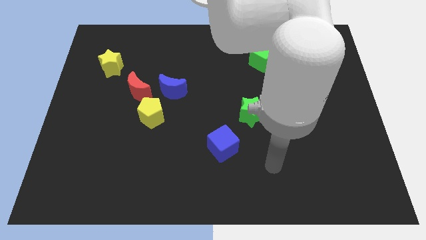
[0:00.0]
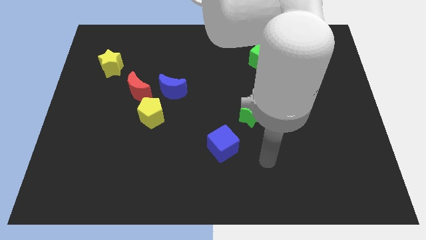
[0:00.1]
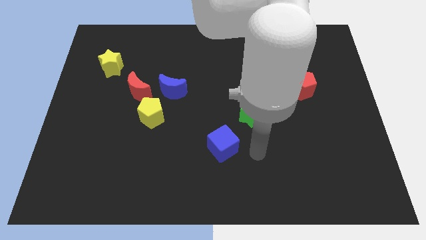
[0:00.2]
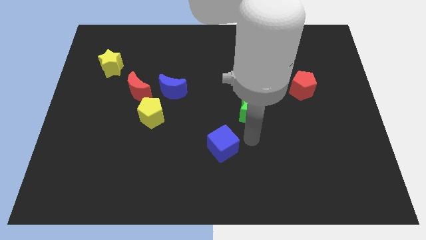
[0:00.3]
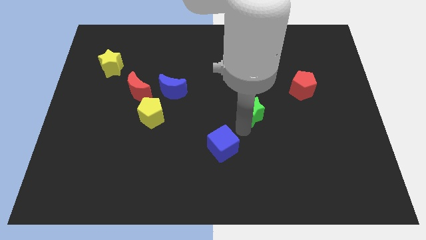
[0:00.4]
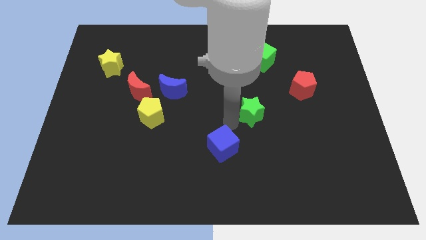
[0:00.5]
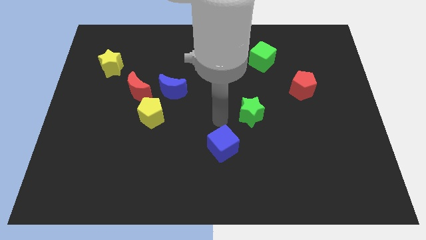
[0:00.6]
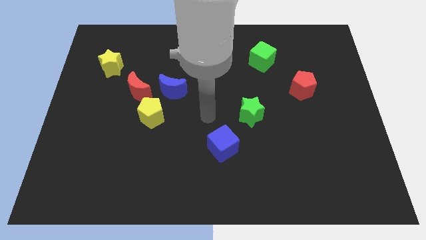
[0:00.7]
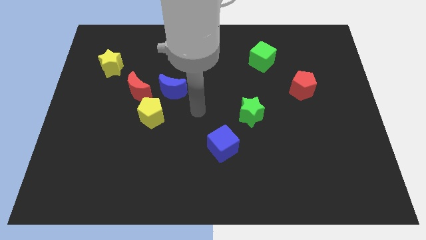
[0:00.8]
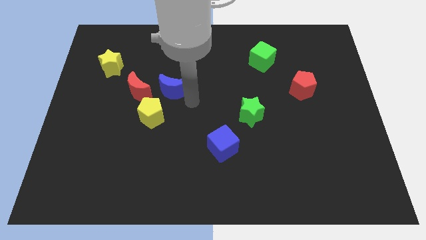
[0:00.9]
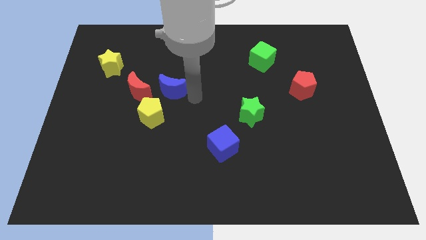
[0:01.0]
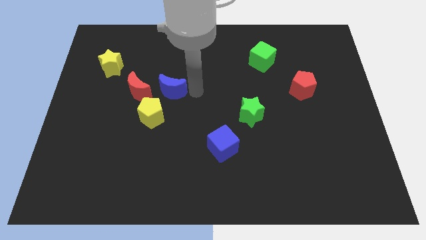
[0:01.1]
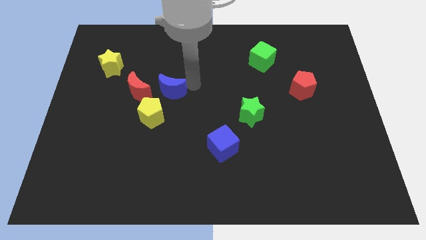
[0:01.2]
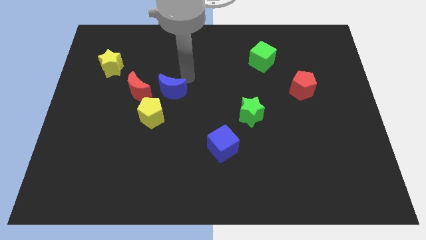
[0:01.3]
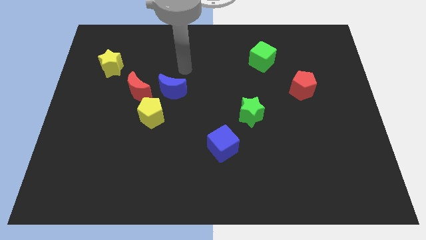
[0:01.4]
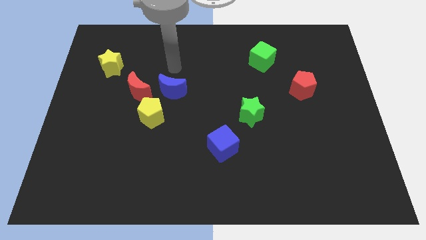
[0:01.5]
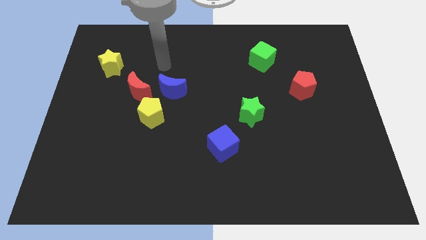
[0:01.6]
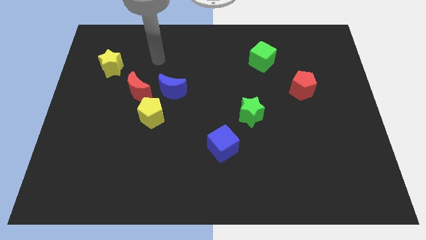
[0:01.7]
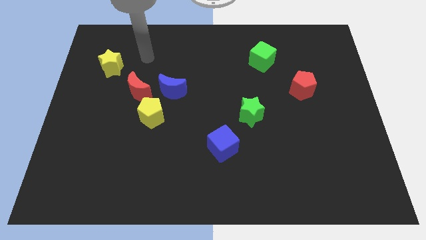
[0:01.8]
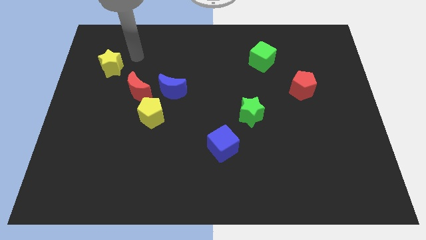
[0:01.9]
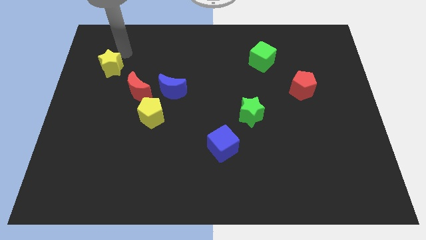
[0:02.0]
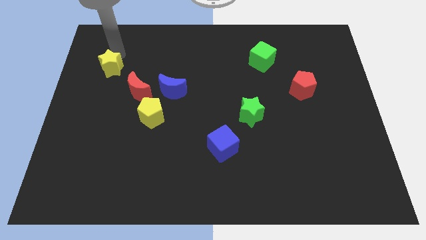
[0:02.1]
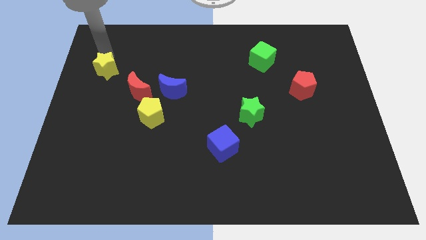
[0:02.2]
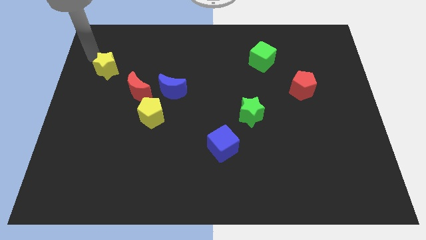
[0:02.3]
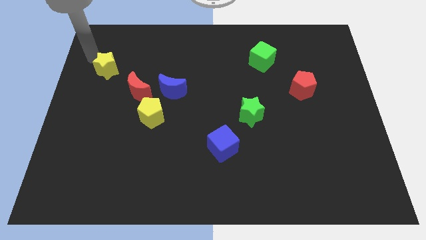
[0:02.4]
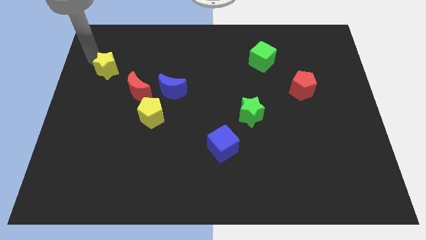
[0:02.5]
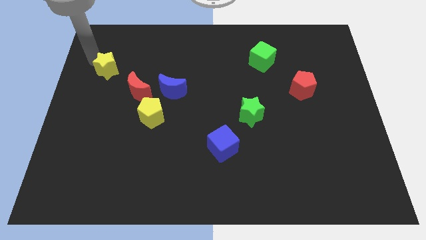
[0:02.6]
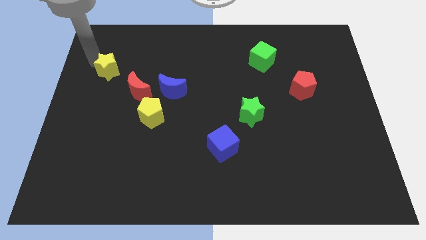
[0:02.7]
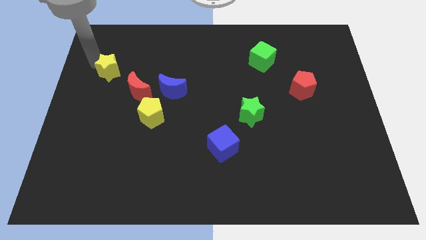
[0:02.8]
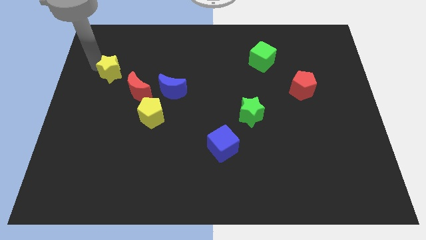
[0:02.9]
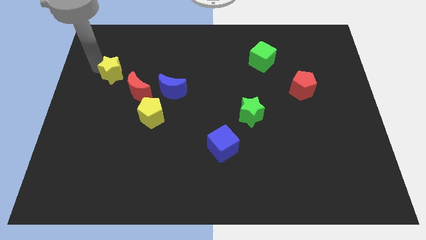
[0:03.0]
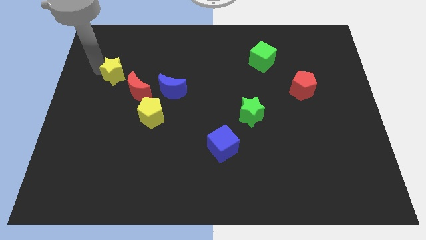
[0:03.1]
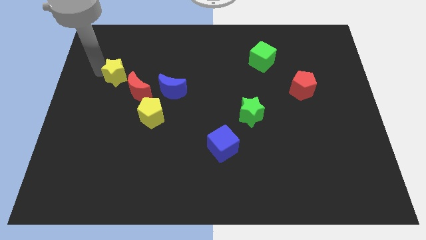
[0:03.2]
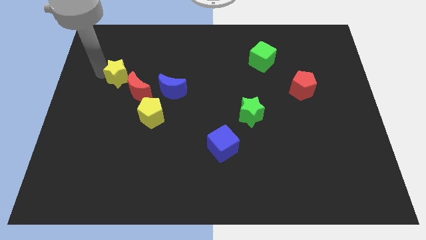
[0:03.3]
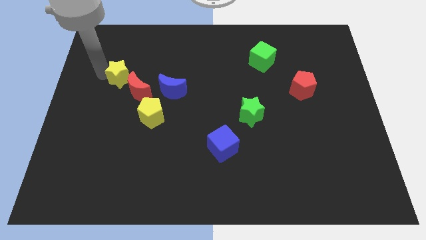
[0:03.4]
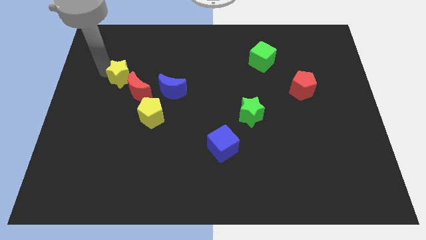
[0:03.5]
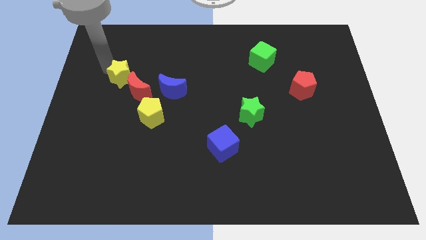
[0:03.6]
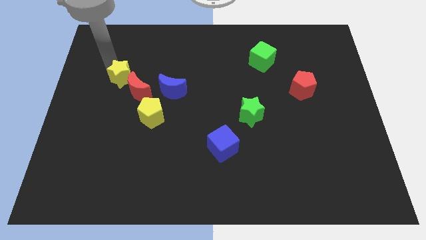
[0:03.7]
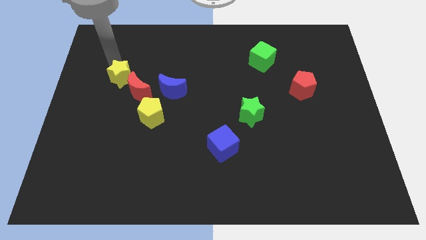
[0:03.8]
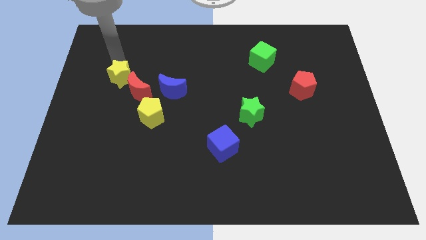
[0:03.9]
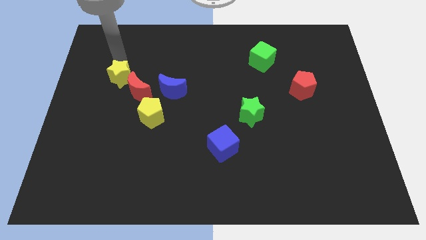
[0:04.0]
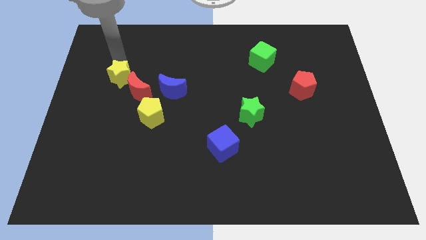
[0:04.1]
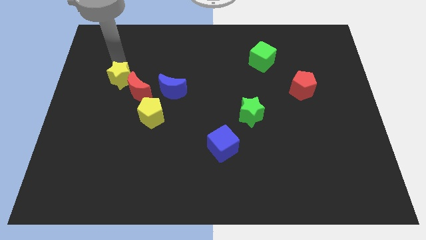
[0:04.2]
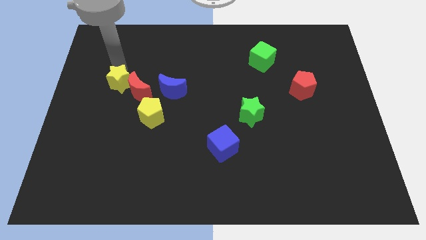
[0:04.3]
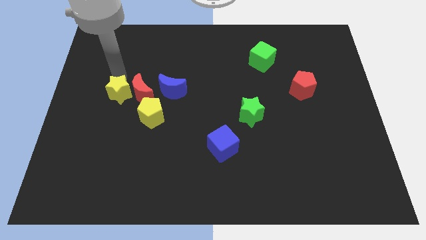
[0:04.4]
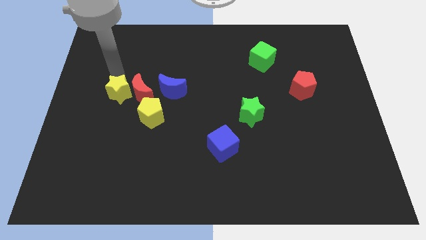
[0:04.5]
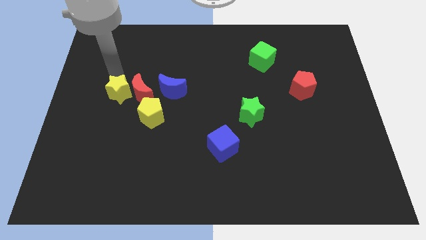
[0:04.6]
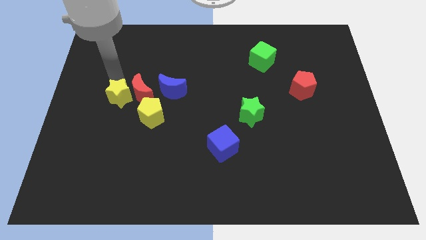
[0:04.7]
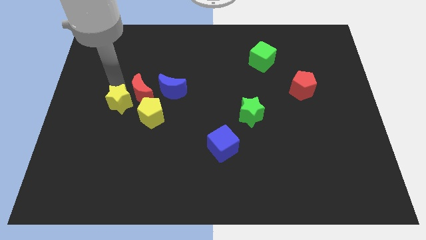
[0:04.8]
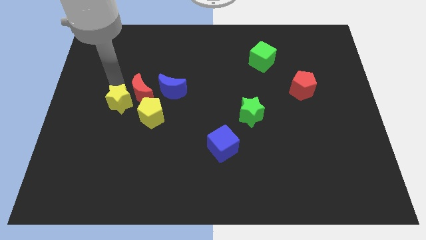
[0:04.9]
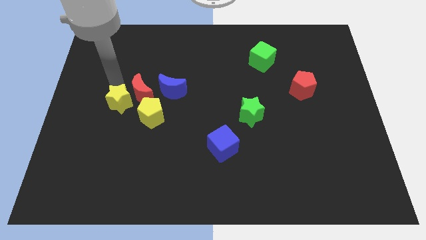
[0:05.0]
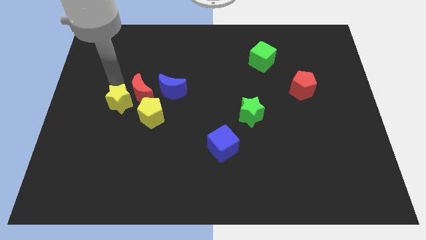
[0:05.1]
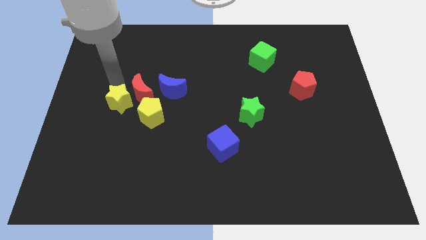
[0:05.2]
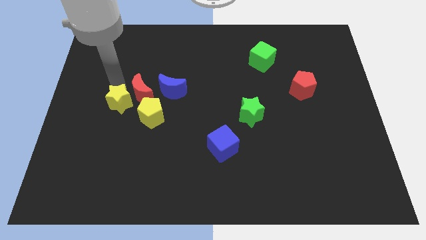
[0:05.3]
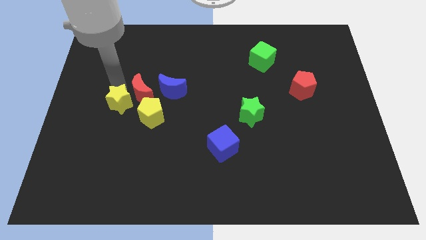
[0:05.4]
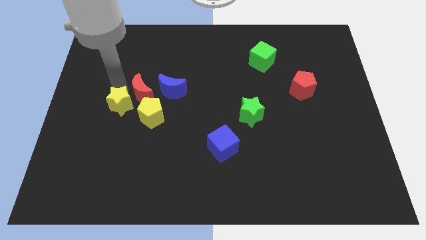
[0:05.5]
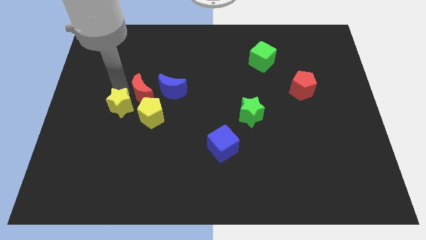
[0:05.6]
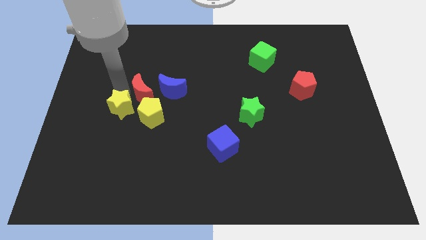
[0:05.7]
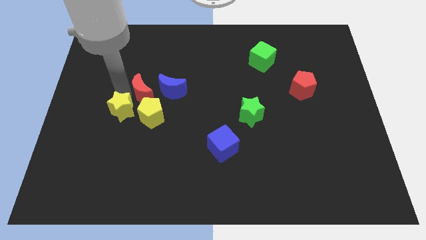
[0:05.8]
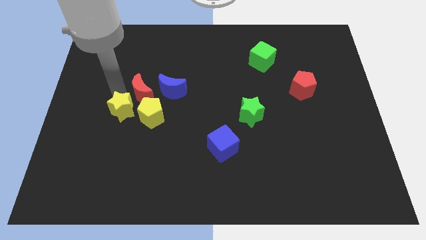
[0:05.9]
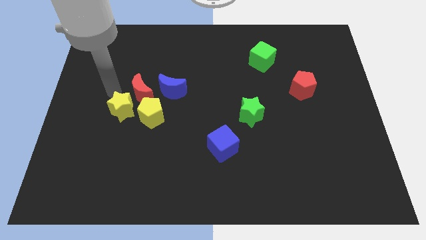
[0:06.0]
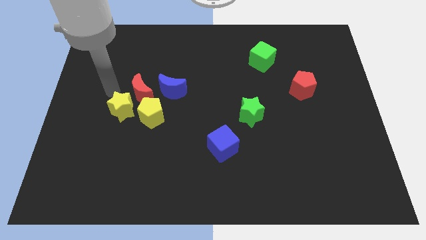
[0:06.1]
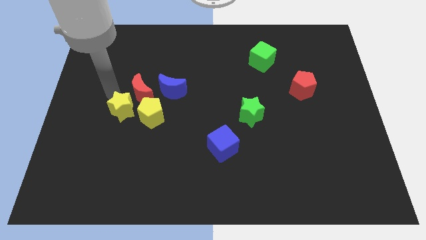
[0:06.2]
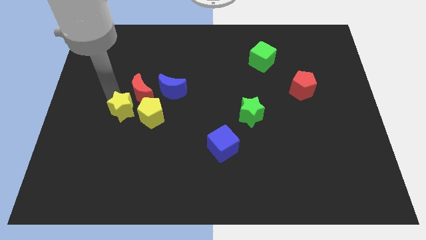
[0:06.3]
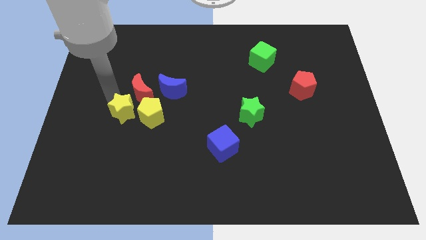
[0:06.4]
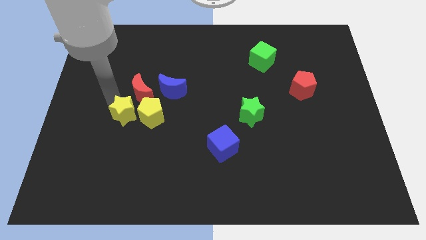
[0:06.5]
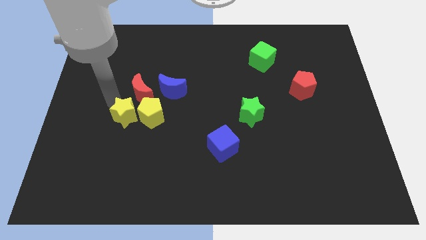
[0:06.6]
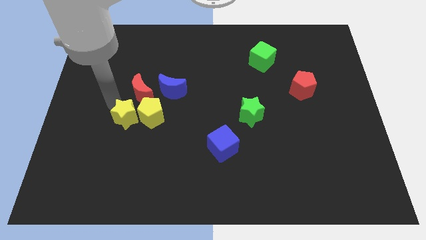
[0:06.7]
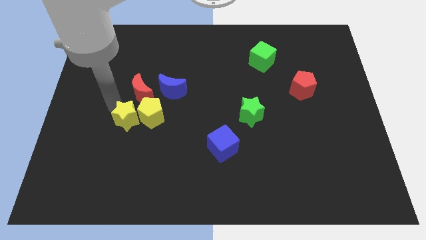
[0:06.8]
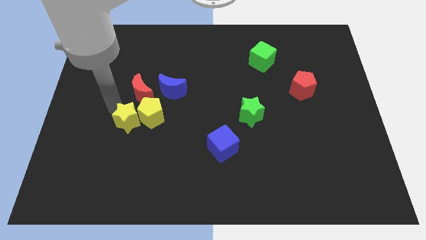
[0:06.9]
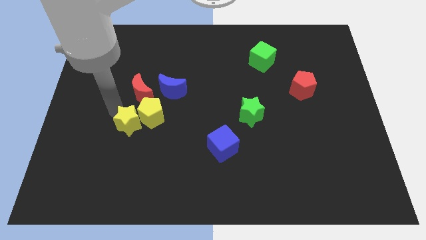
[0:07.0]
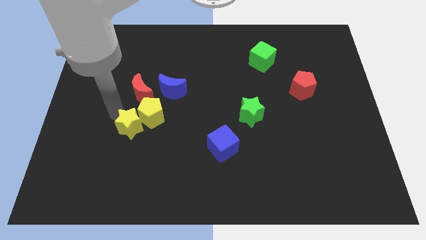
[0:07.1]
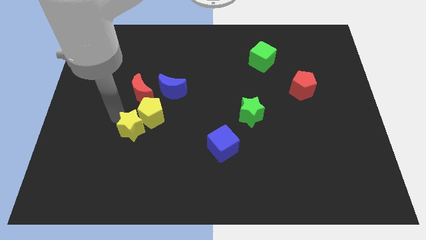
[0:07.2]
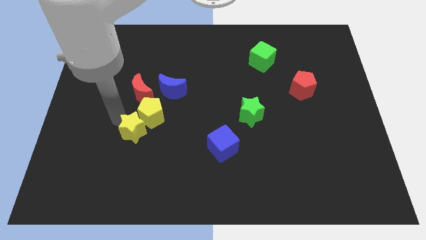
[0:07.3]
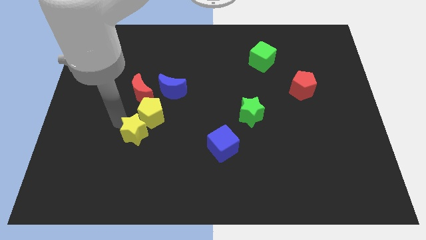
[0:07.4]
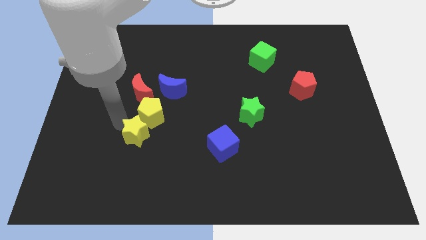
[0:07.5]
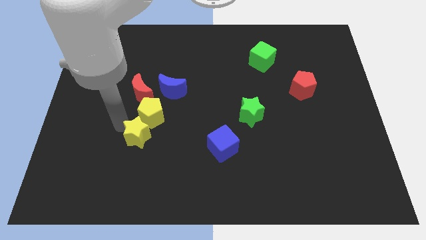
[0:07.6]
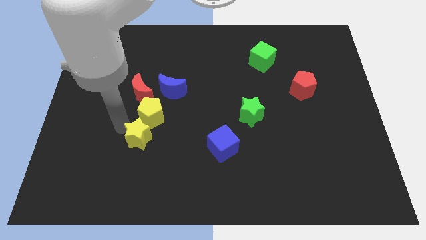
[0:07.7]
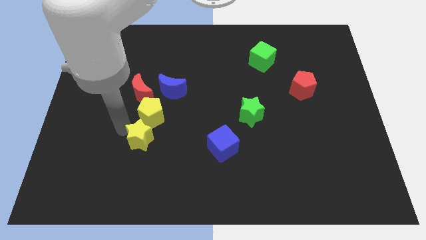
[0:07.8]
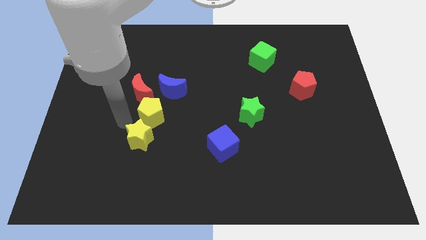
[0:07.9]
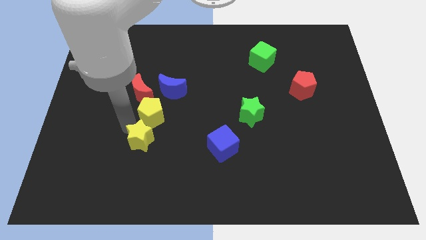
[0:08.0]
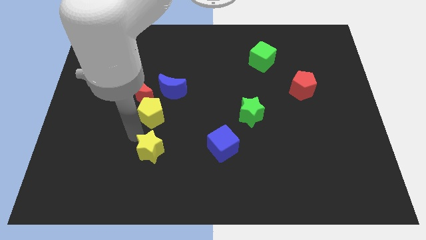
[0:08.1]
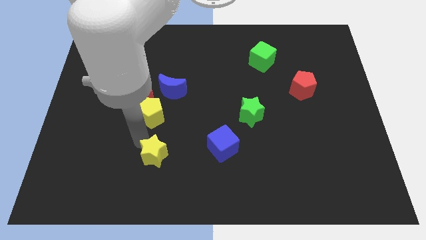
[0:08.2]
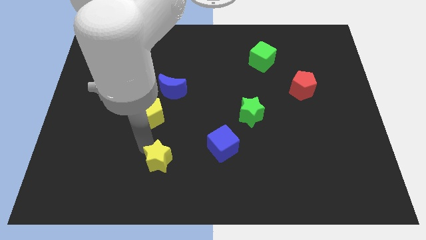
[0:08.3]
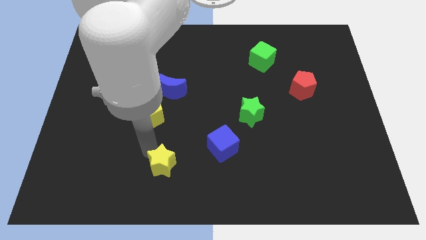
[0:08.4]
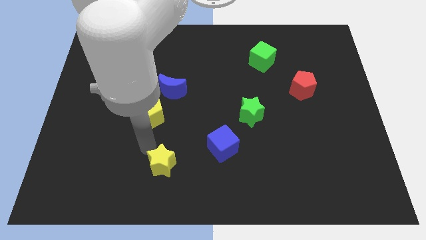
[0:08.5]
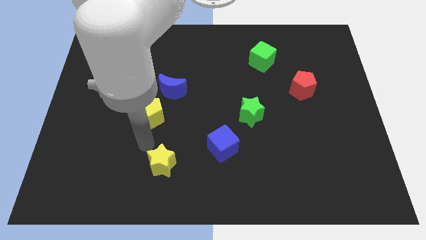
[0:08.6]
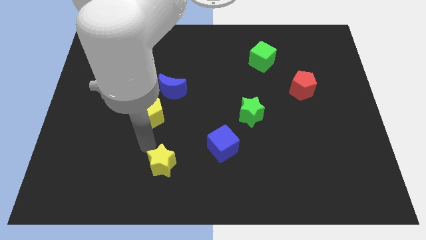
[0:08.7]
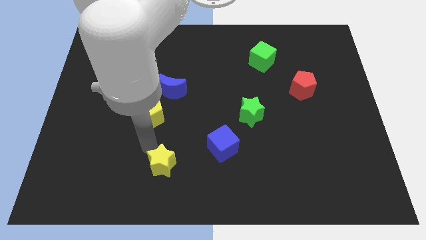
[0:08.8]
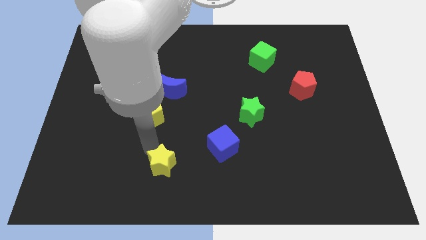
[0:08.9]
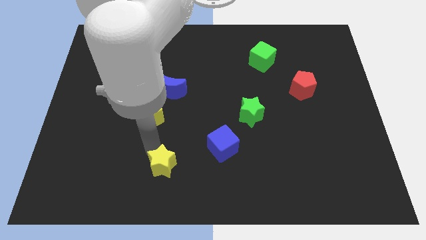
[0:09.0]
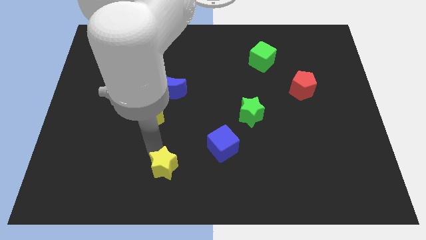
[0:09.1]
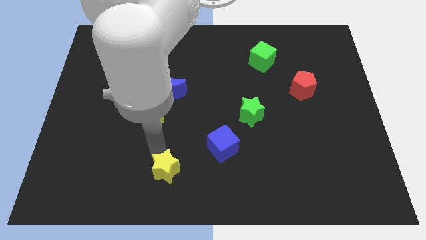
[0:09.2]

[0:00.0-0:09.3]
move the yellow star to the bottom side
